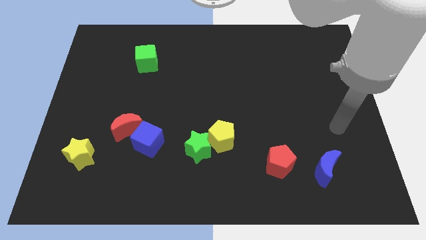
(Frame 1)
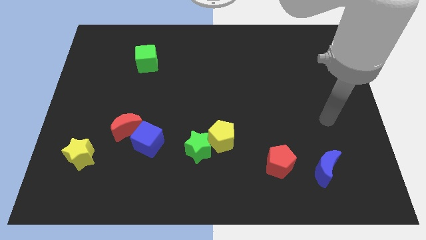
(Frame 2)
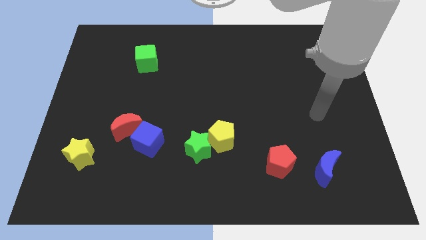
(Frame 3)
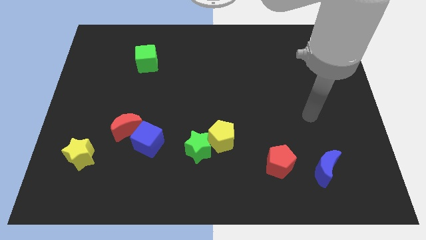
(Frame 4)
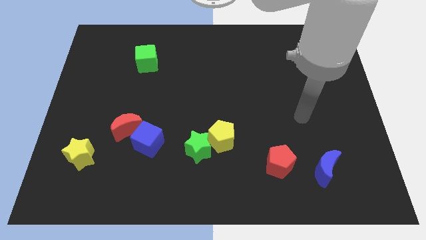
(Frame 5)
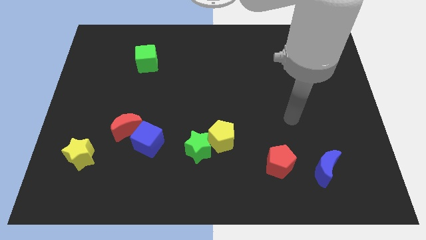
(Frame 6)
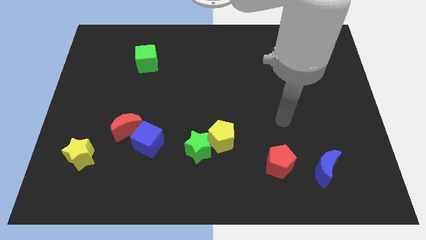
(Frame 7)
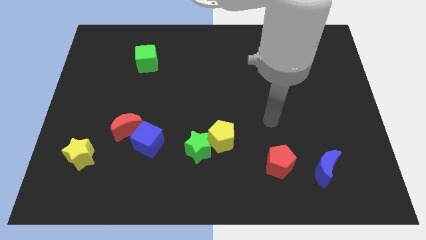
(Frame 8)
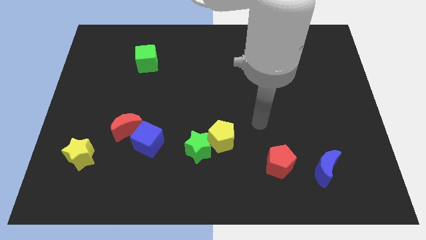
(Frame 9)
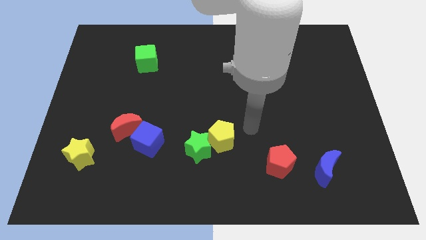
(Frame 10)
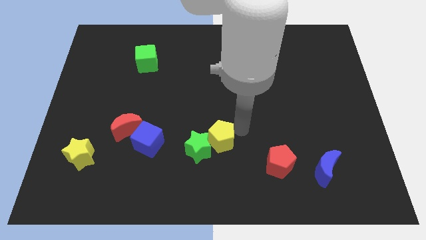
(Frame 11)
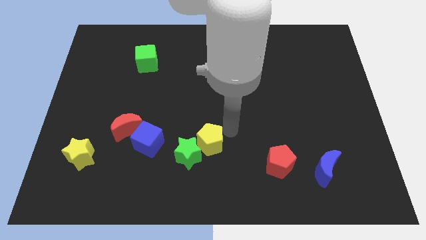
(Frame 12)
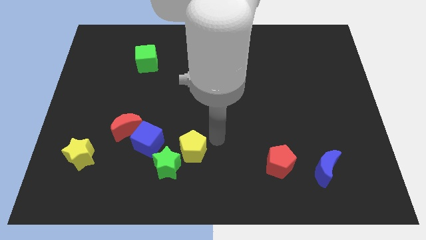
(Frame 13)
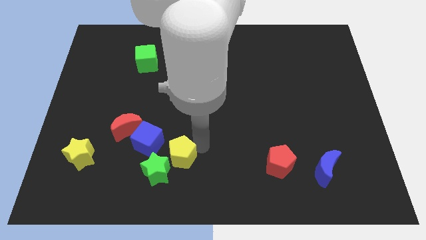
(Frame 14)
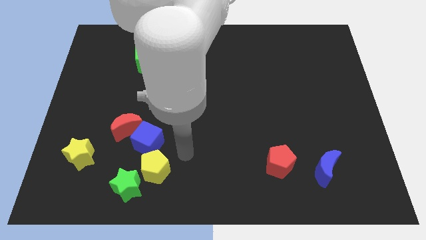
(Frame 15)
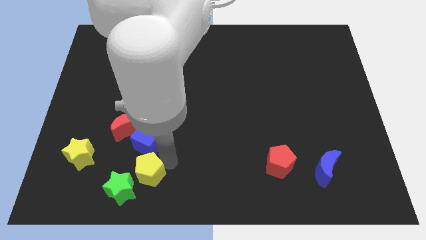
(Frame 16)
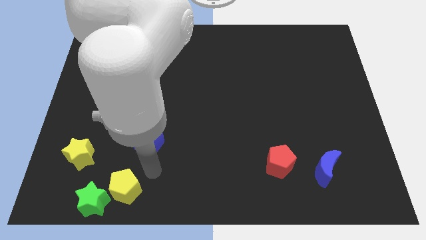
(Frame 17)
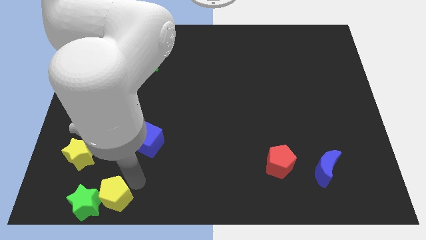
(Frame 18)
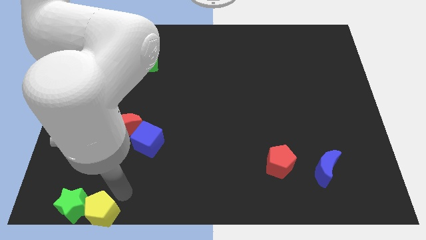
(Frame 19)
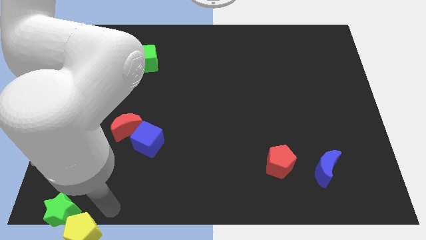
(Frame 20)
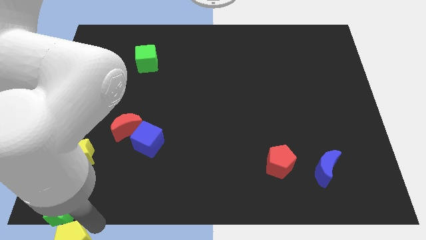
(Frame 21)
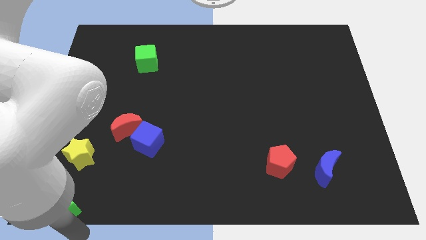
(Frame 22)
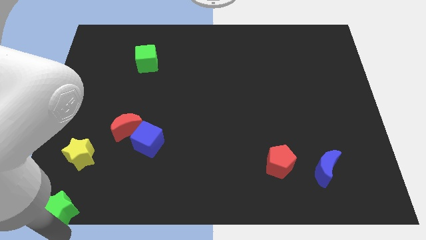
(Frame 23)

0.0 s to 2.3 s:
move the green star away from the yellow pentagon

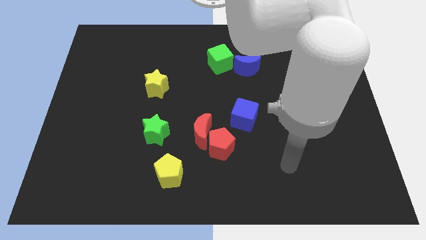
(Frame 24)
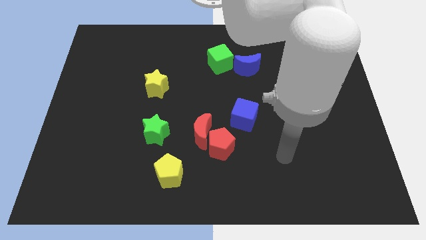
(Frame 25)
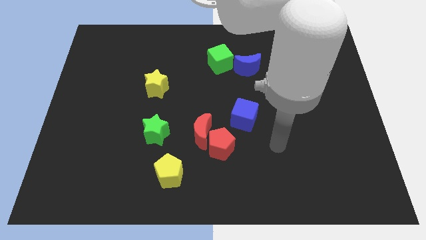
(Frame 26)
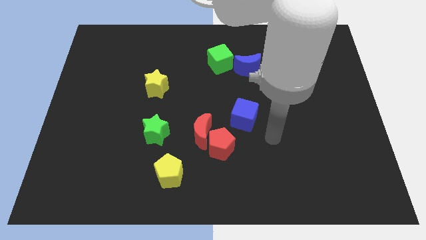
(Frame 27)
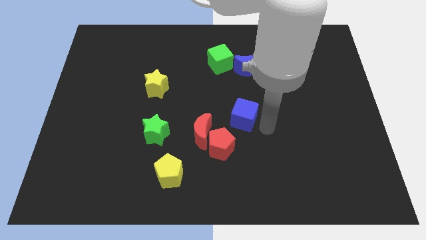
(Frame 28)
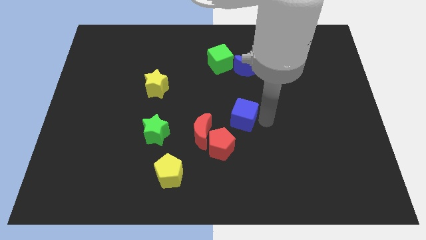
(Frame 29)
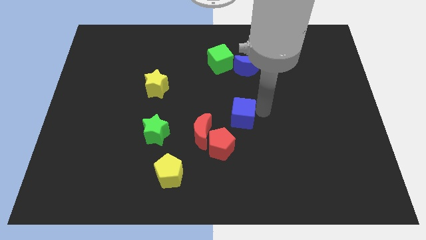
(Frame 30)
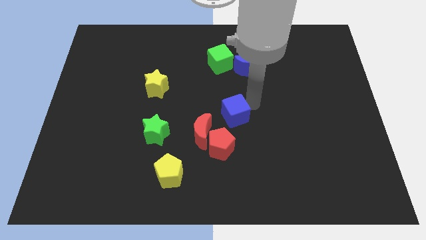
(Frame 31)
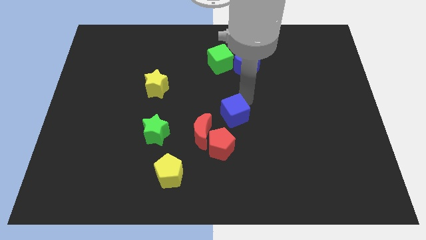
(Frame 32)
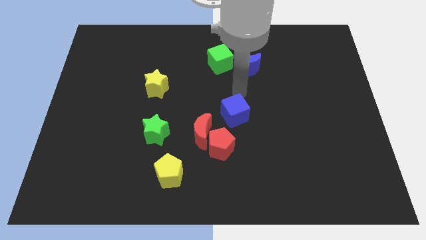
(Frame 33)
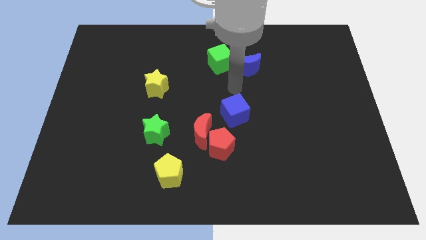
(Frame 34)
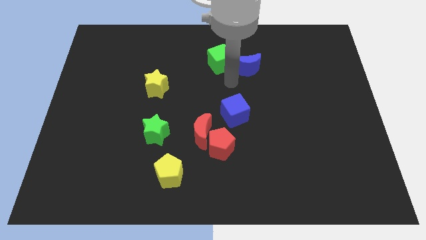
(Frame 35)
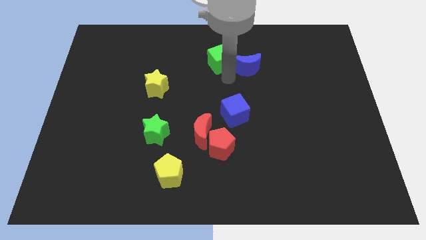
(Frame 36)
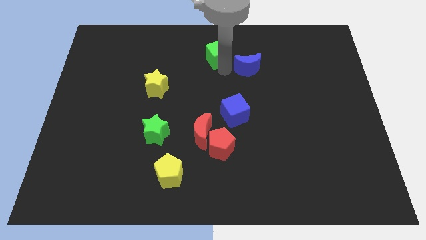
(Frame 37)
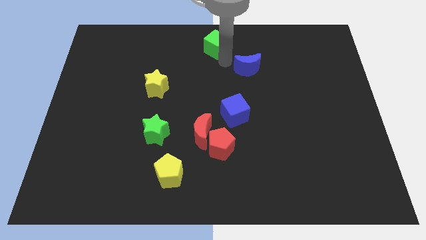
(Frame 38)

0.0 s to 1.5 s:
move the blue moon away from the green cube

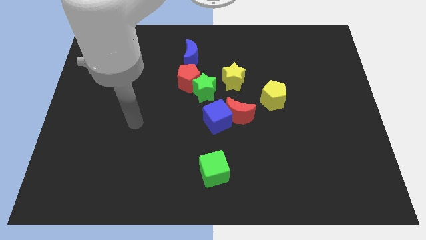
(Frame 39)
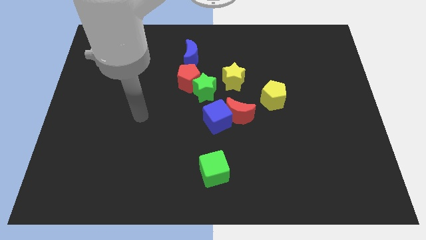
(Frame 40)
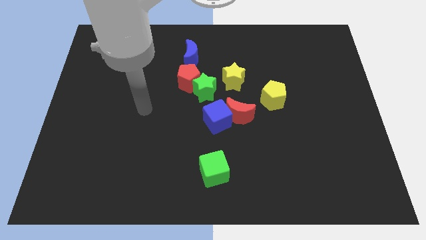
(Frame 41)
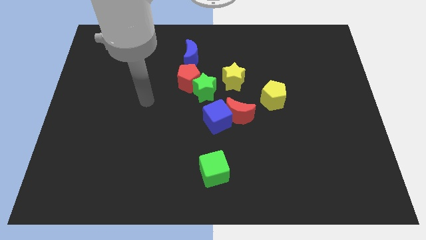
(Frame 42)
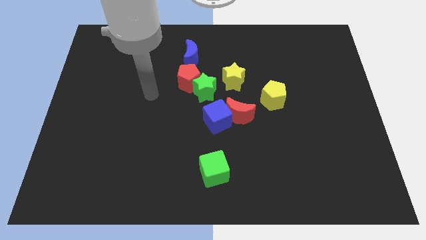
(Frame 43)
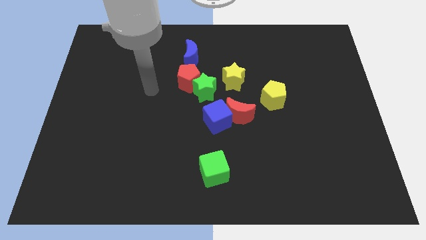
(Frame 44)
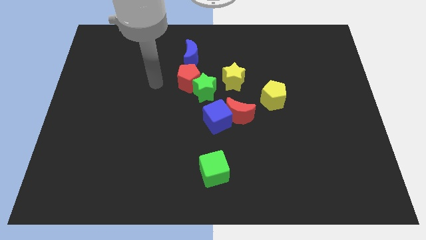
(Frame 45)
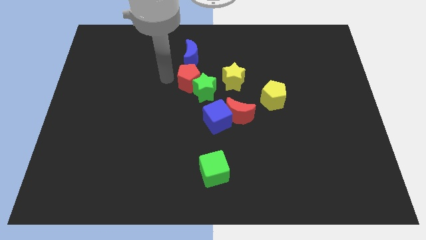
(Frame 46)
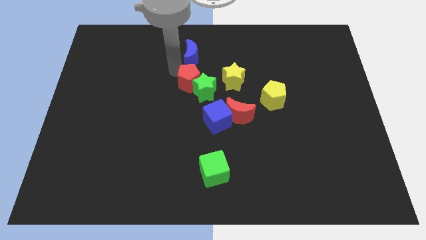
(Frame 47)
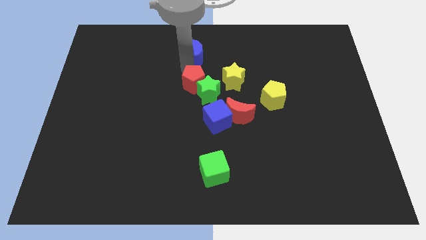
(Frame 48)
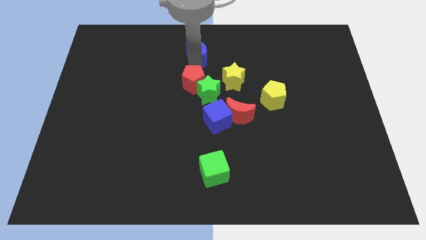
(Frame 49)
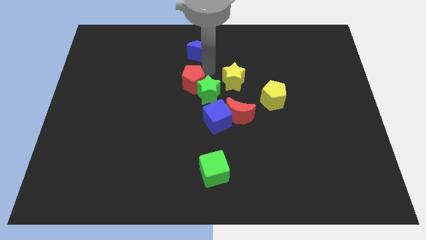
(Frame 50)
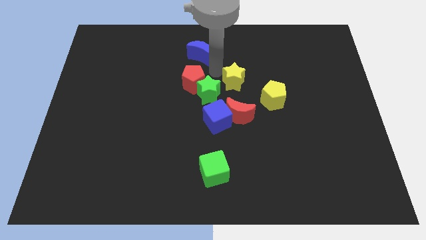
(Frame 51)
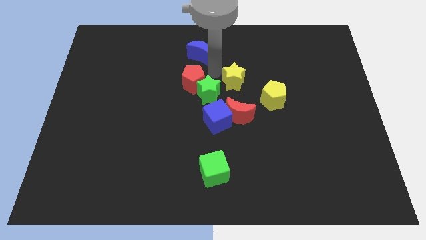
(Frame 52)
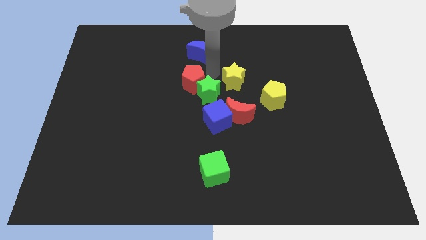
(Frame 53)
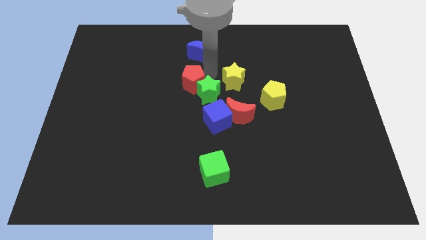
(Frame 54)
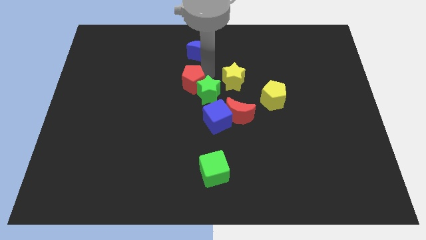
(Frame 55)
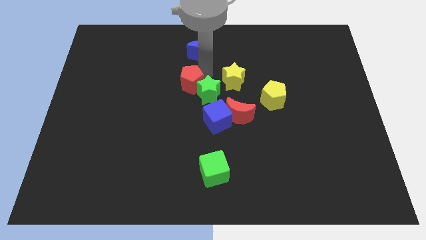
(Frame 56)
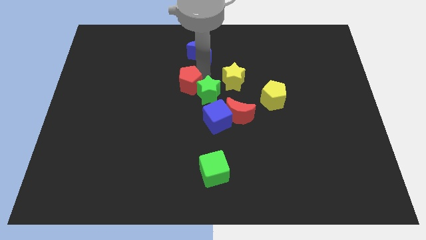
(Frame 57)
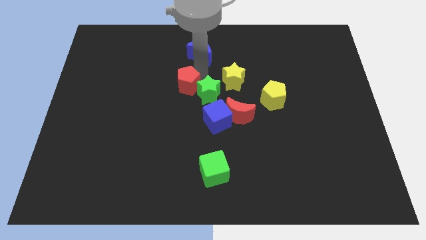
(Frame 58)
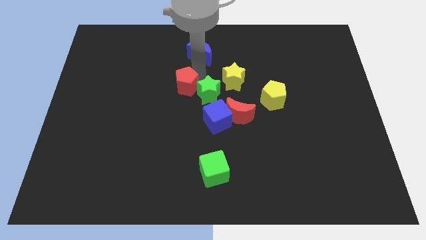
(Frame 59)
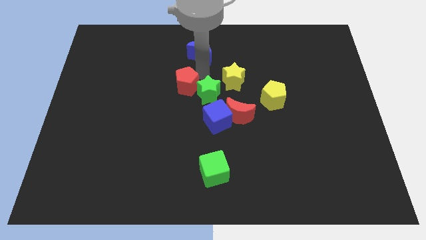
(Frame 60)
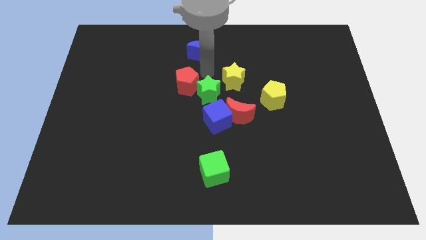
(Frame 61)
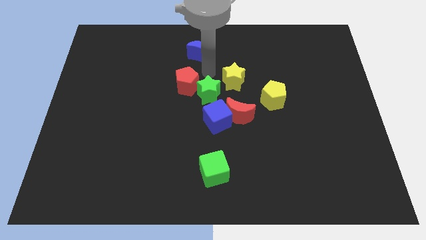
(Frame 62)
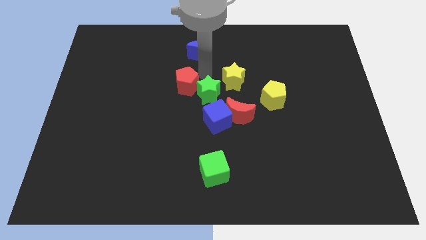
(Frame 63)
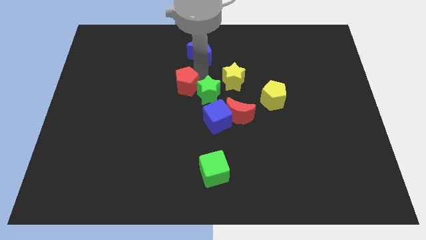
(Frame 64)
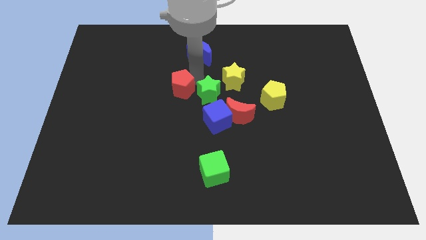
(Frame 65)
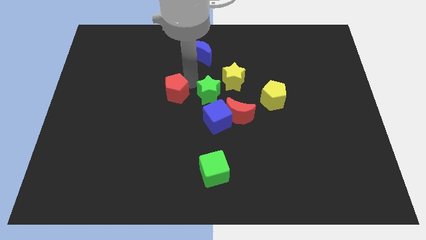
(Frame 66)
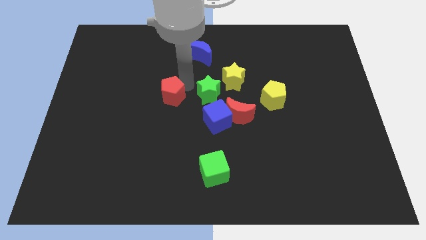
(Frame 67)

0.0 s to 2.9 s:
pull the red pentagon apart from the green star and blue moon

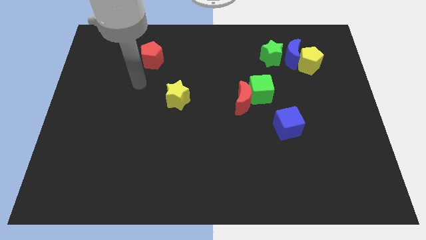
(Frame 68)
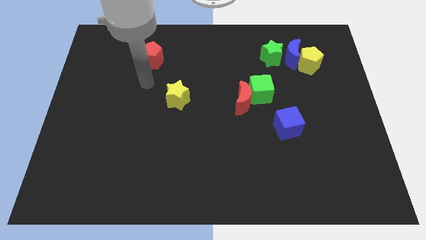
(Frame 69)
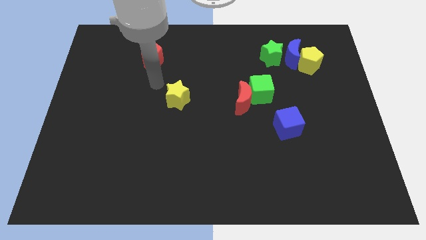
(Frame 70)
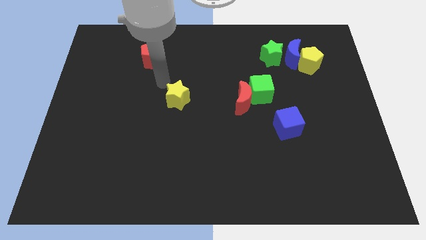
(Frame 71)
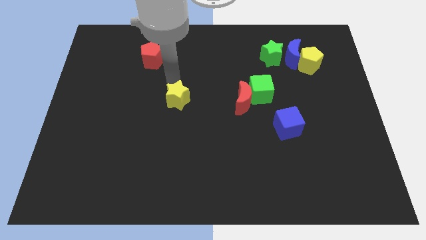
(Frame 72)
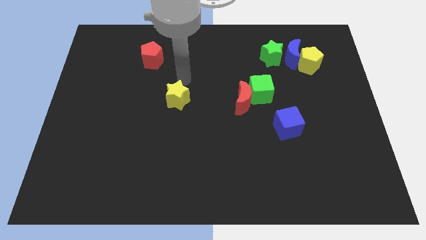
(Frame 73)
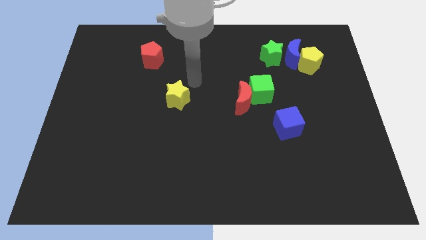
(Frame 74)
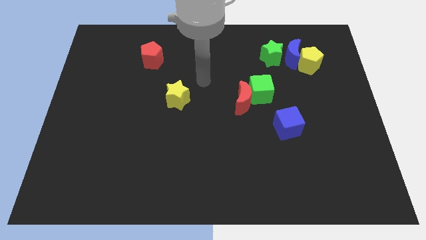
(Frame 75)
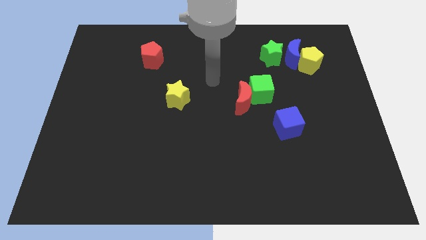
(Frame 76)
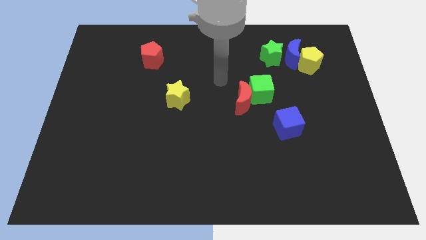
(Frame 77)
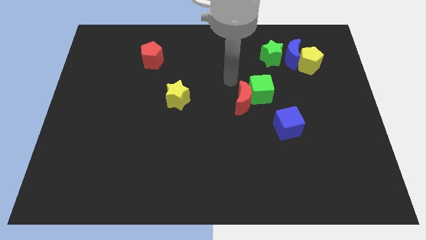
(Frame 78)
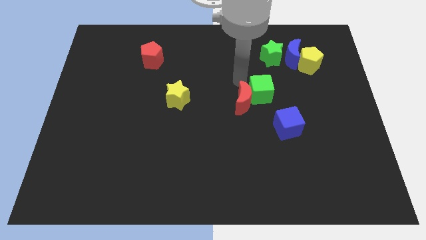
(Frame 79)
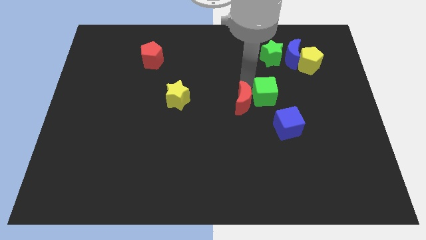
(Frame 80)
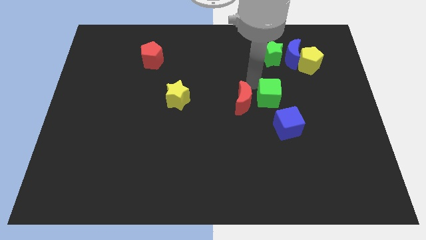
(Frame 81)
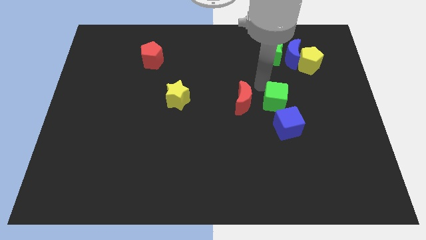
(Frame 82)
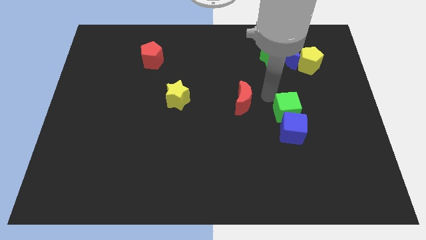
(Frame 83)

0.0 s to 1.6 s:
pull the red moon apart from the green cube

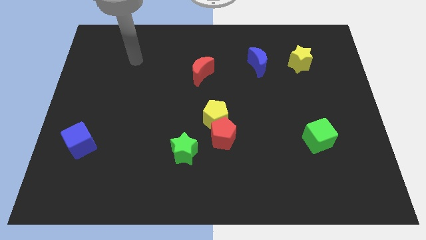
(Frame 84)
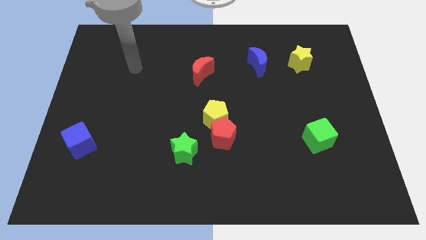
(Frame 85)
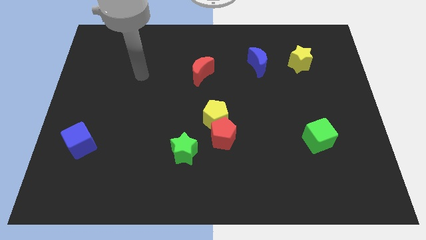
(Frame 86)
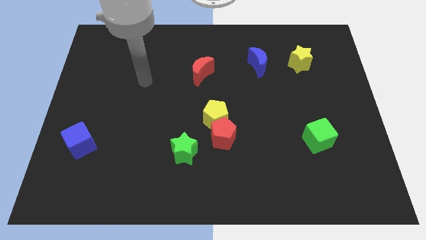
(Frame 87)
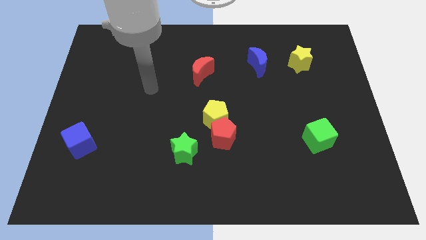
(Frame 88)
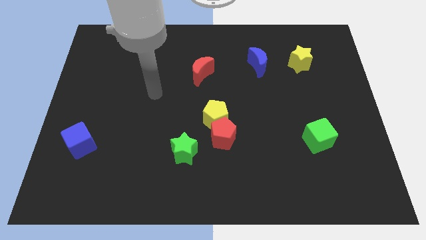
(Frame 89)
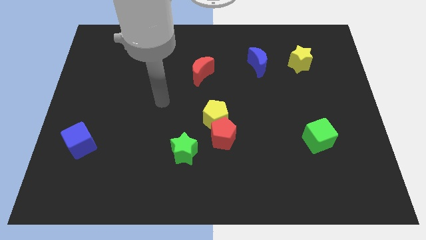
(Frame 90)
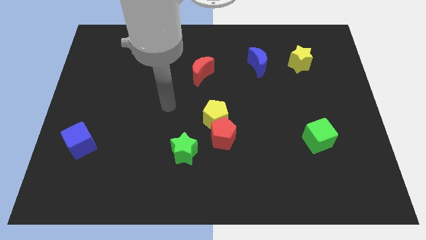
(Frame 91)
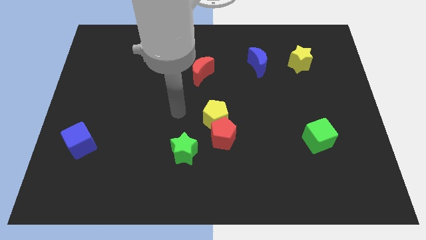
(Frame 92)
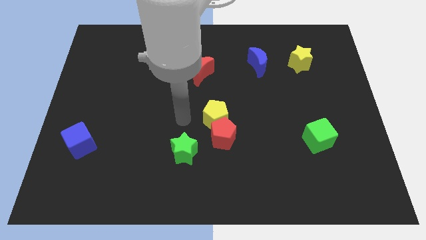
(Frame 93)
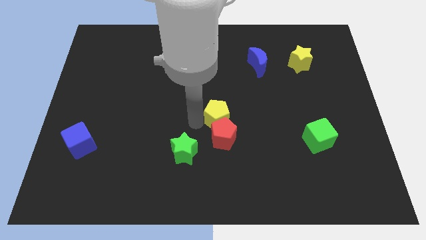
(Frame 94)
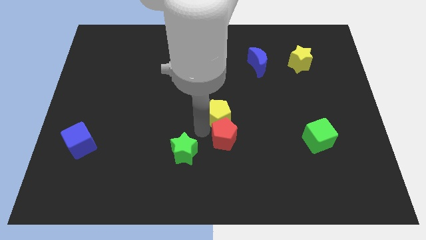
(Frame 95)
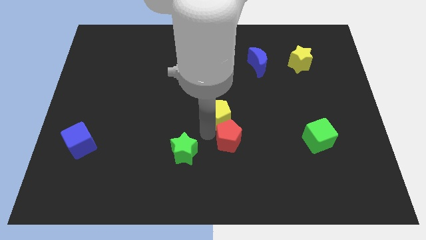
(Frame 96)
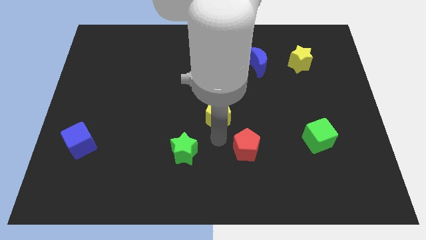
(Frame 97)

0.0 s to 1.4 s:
pull the yellow pentagon apart from the red pentagon
